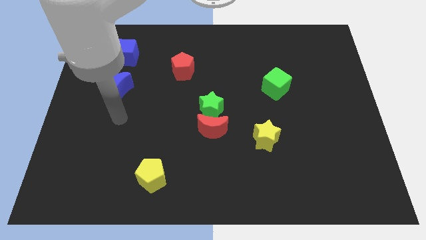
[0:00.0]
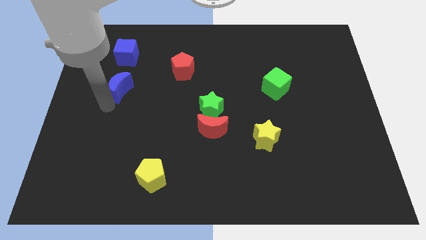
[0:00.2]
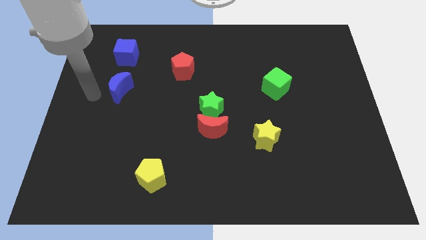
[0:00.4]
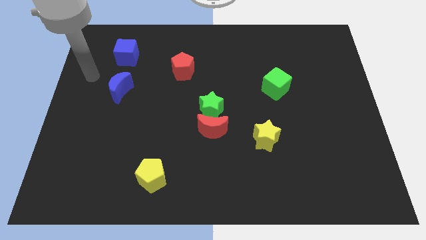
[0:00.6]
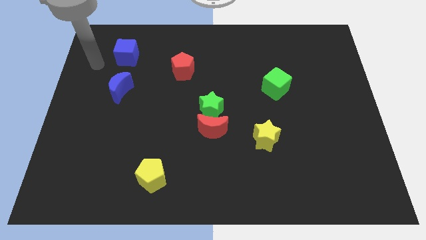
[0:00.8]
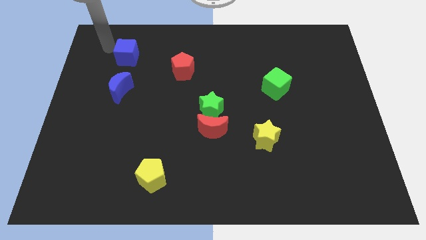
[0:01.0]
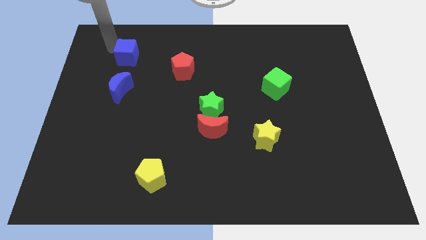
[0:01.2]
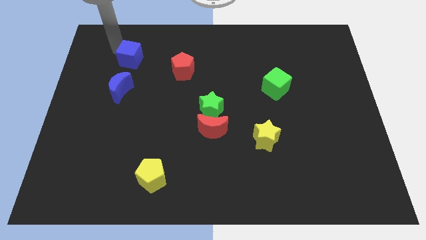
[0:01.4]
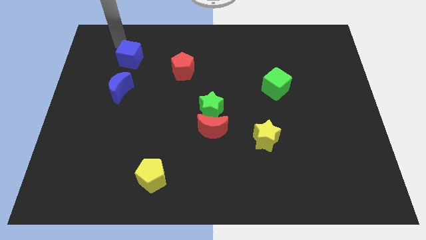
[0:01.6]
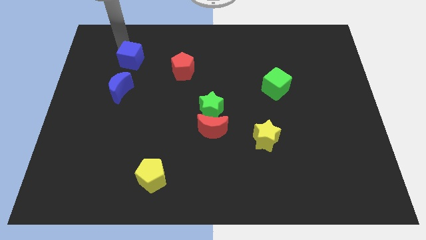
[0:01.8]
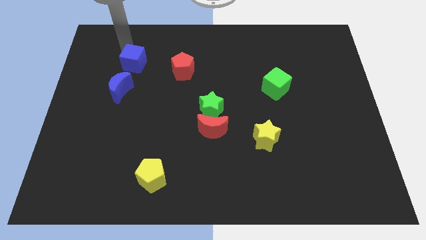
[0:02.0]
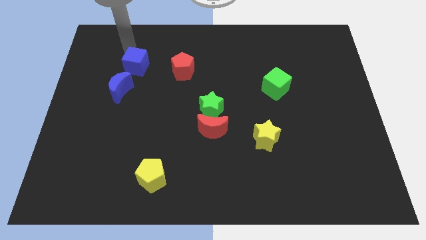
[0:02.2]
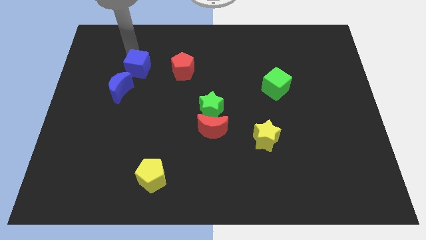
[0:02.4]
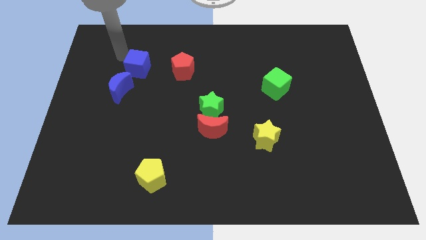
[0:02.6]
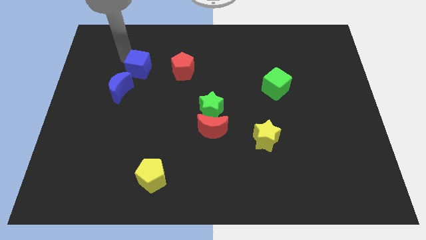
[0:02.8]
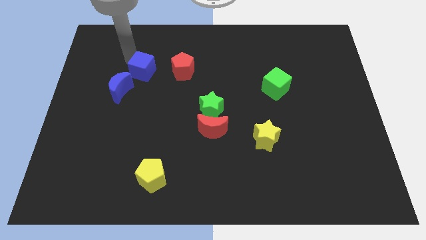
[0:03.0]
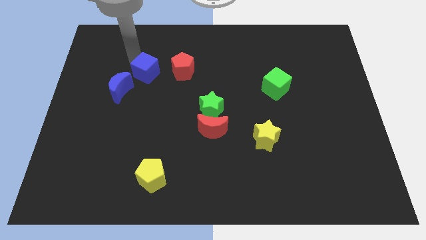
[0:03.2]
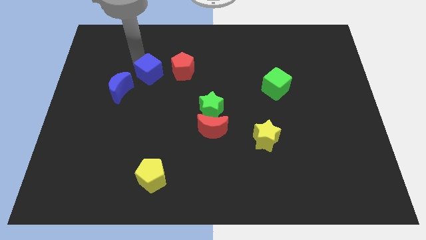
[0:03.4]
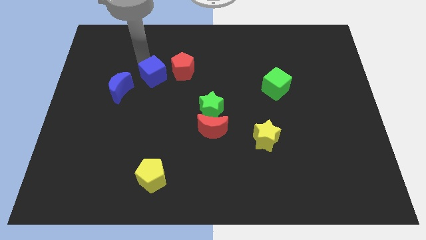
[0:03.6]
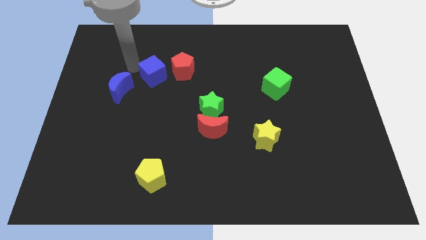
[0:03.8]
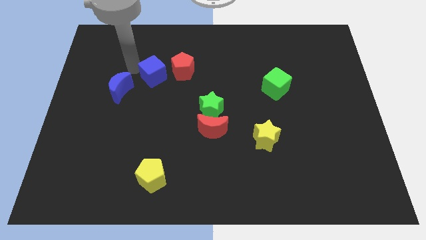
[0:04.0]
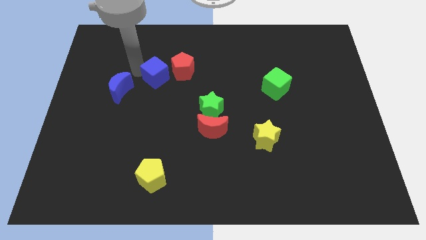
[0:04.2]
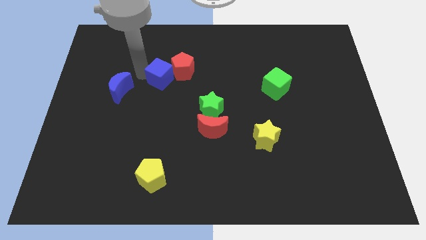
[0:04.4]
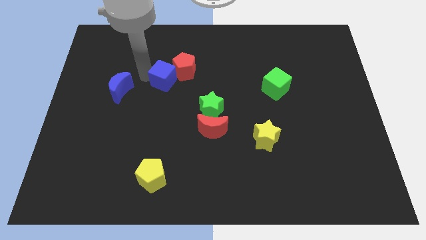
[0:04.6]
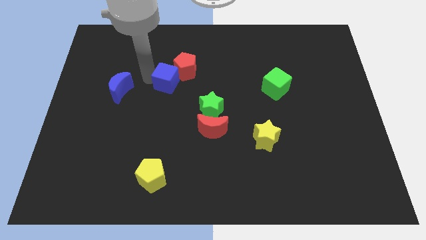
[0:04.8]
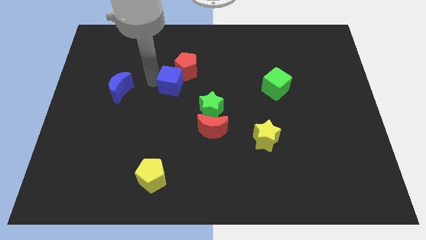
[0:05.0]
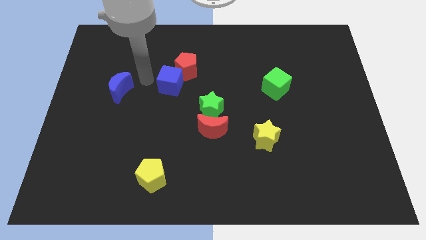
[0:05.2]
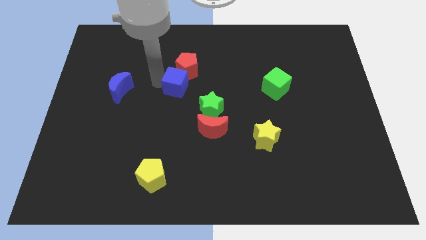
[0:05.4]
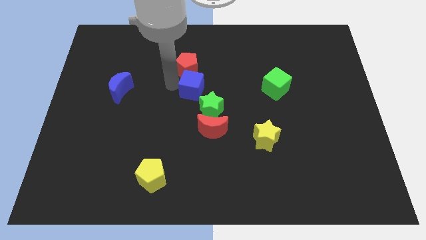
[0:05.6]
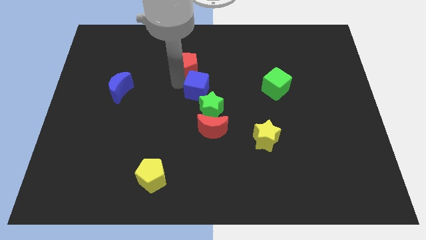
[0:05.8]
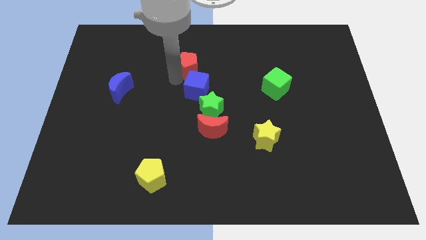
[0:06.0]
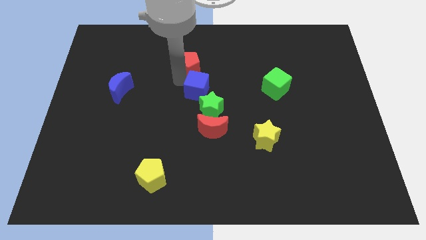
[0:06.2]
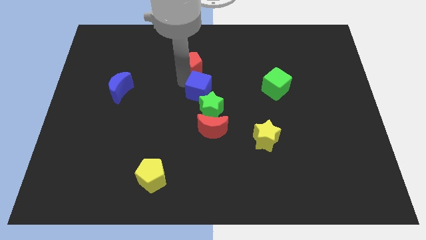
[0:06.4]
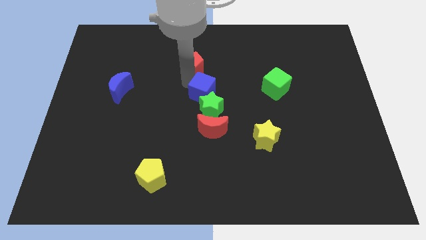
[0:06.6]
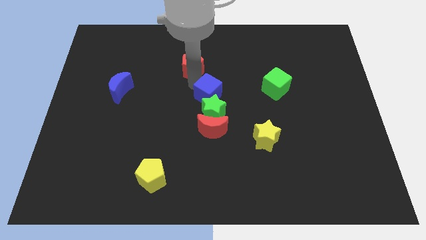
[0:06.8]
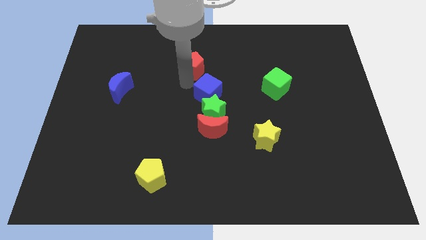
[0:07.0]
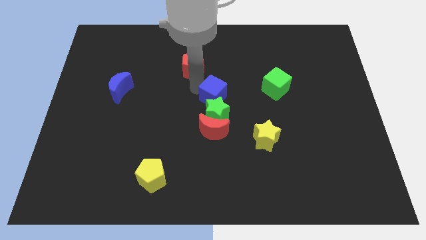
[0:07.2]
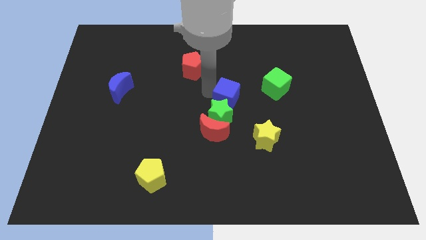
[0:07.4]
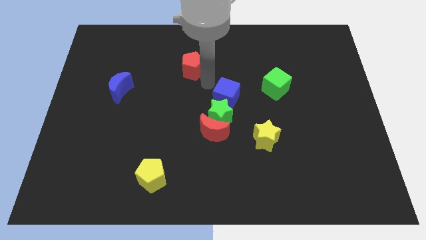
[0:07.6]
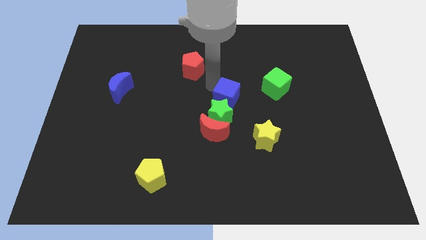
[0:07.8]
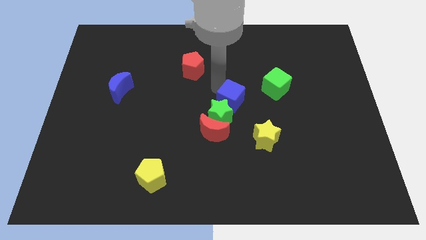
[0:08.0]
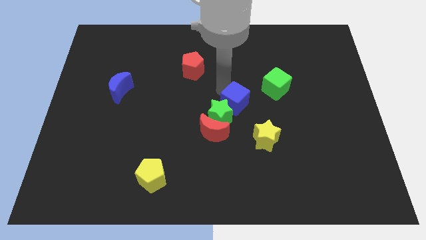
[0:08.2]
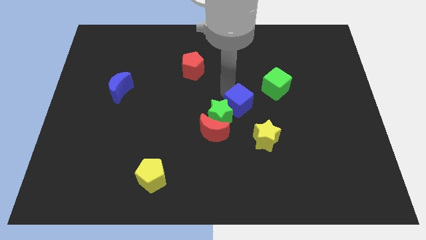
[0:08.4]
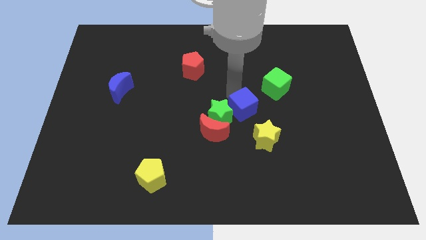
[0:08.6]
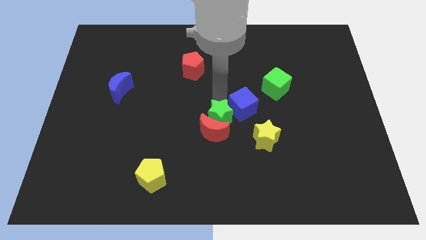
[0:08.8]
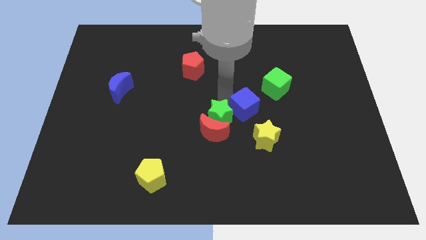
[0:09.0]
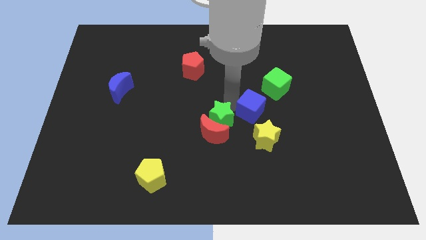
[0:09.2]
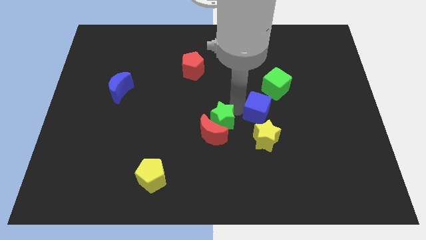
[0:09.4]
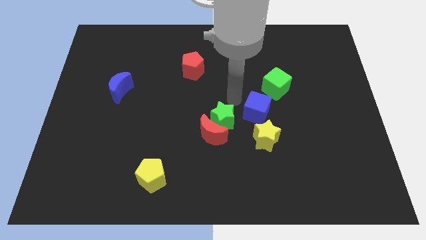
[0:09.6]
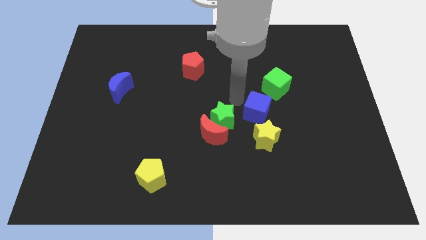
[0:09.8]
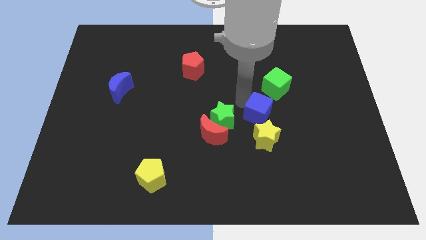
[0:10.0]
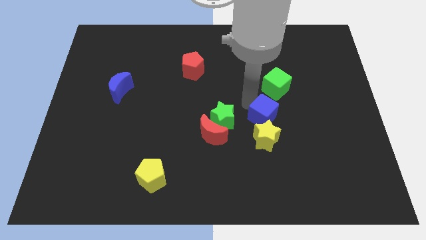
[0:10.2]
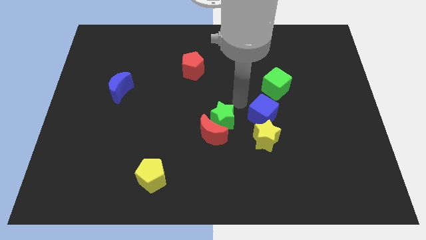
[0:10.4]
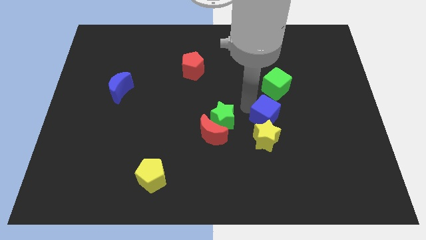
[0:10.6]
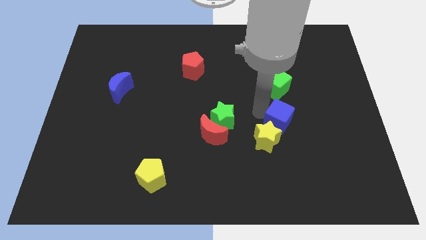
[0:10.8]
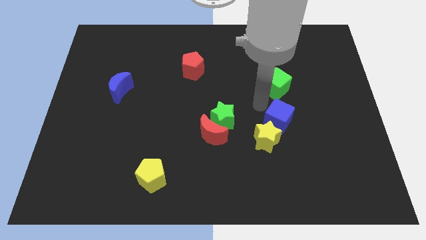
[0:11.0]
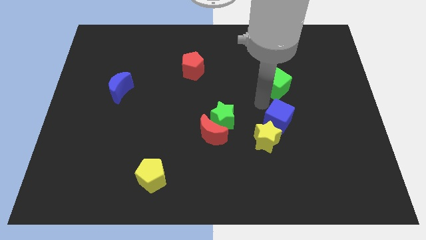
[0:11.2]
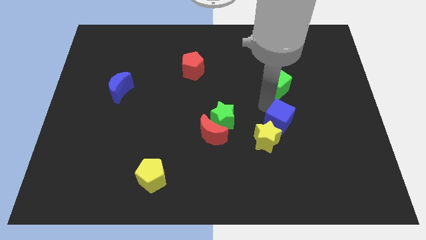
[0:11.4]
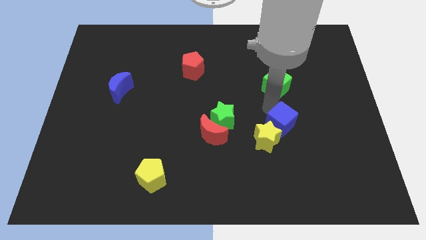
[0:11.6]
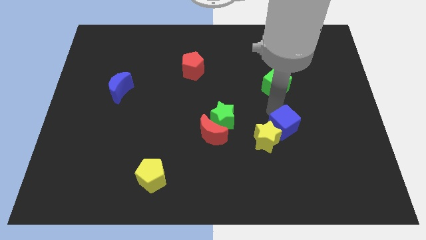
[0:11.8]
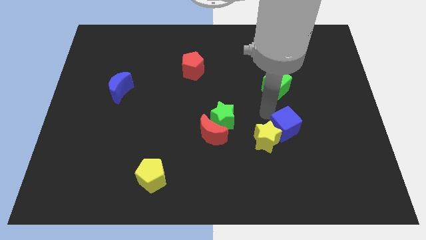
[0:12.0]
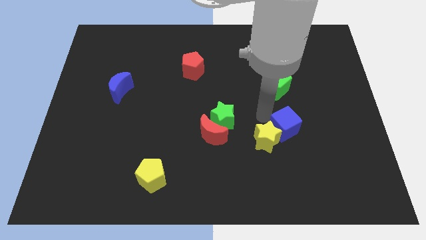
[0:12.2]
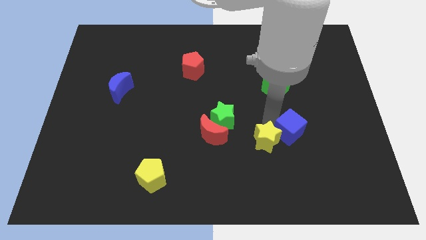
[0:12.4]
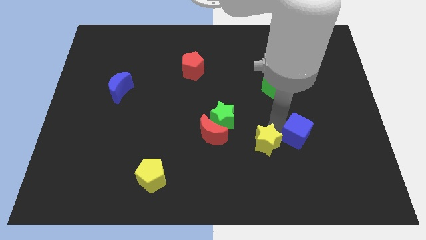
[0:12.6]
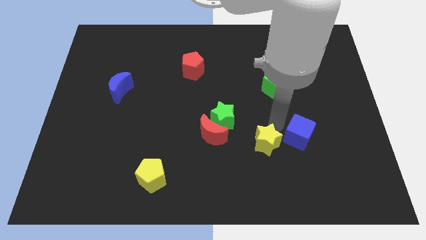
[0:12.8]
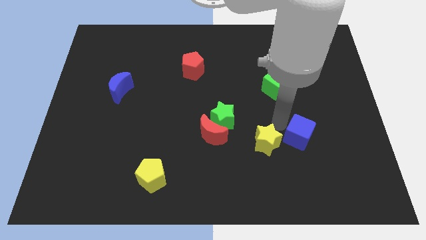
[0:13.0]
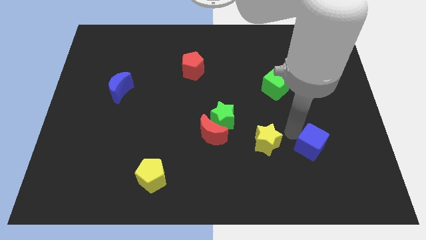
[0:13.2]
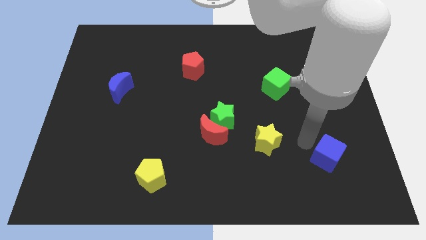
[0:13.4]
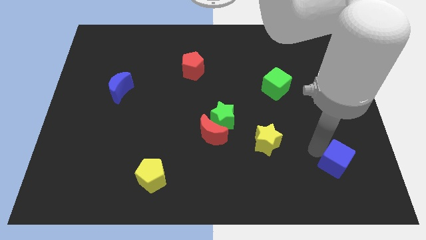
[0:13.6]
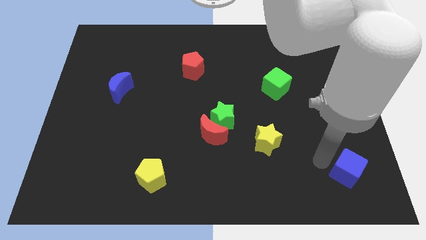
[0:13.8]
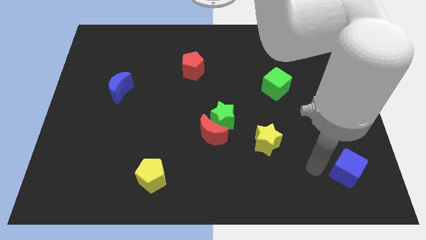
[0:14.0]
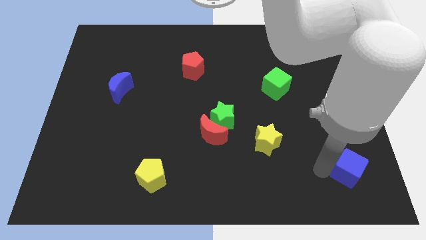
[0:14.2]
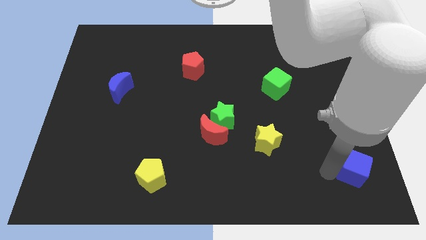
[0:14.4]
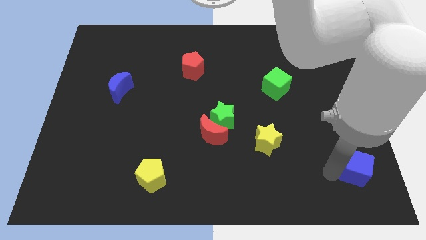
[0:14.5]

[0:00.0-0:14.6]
slide the blue cube to the lower right corner
